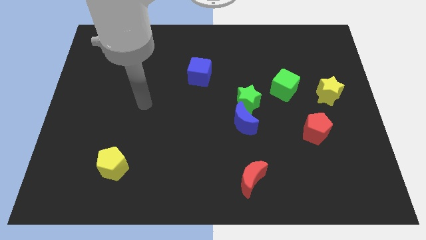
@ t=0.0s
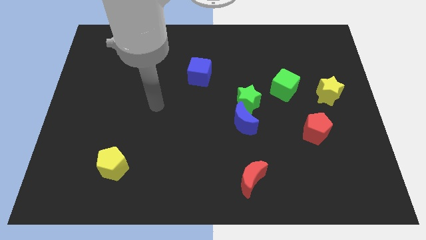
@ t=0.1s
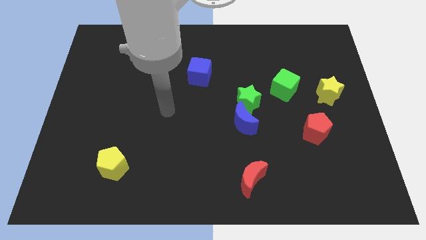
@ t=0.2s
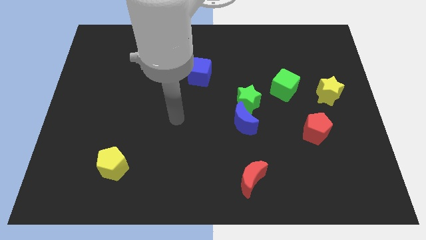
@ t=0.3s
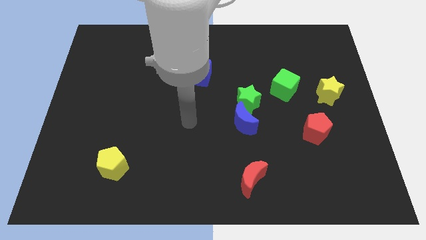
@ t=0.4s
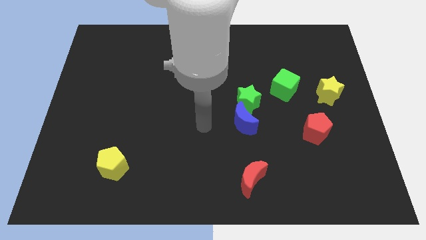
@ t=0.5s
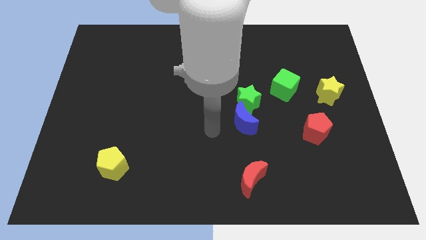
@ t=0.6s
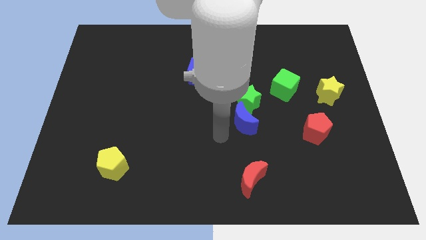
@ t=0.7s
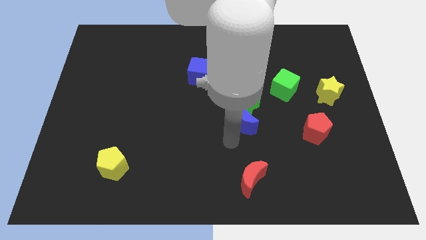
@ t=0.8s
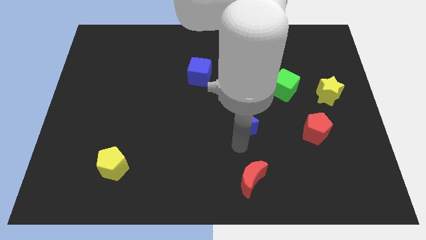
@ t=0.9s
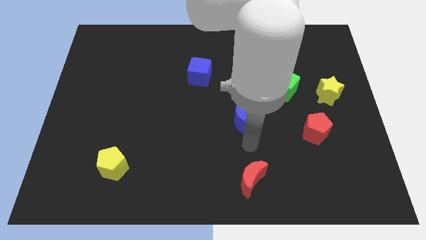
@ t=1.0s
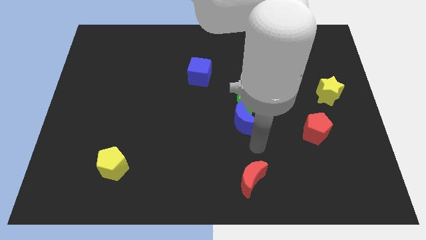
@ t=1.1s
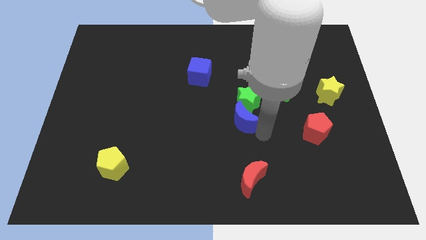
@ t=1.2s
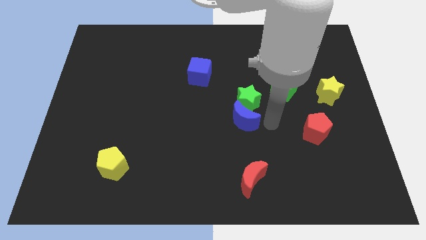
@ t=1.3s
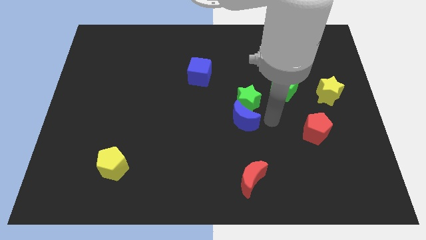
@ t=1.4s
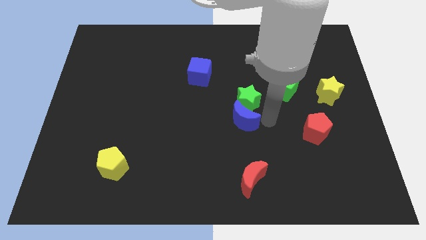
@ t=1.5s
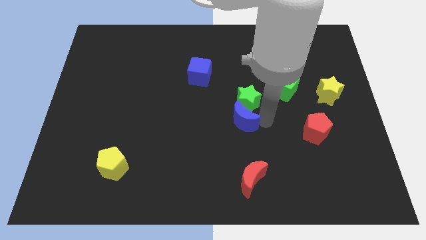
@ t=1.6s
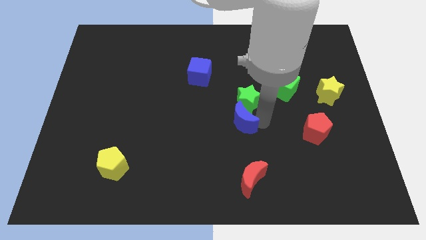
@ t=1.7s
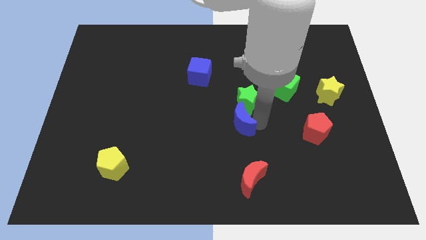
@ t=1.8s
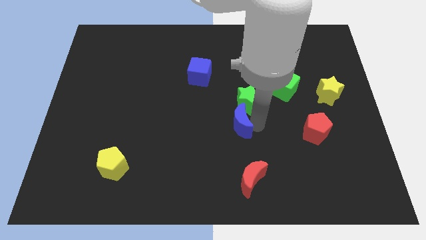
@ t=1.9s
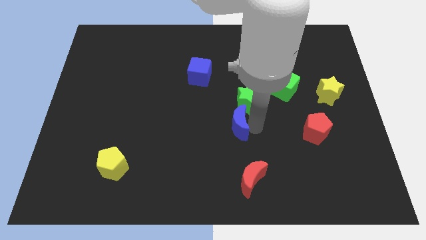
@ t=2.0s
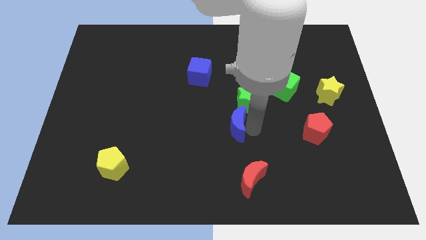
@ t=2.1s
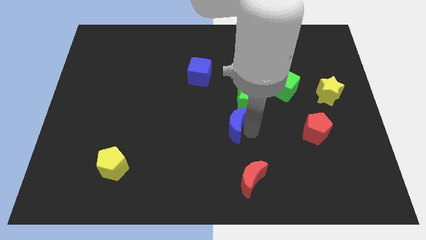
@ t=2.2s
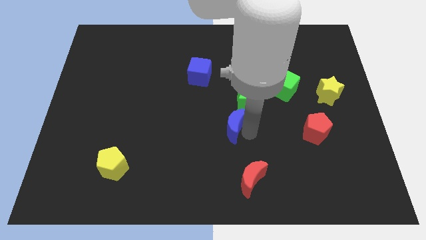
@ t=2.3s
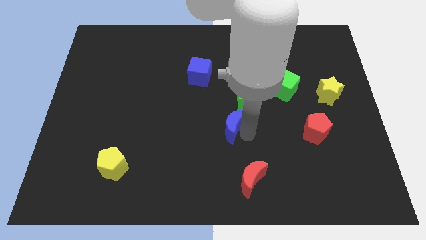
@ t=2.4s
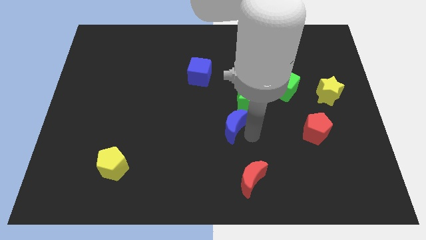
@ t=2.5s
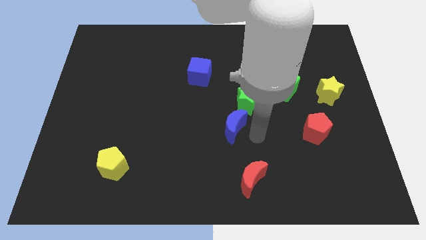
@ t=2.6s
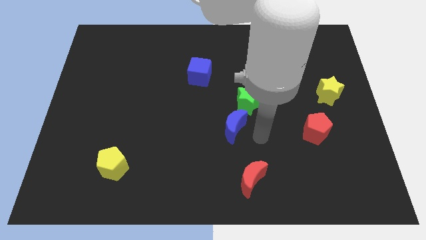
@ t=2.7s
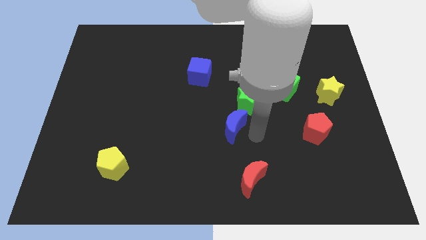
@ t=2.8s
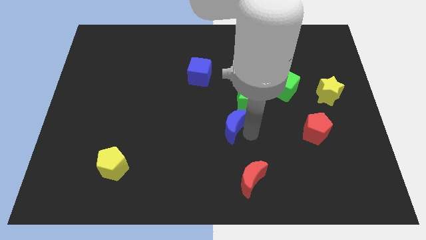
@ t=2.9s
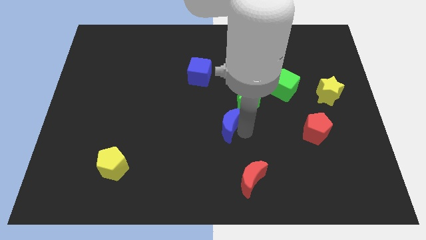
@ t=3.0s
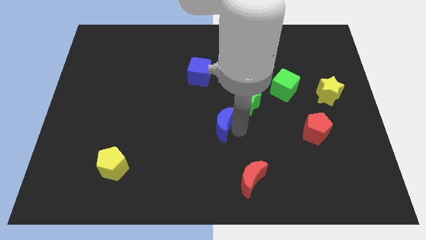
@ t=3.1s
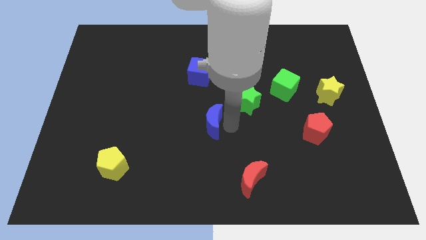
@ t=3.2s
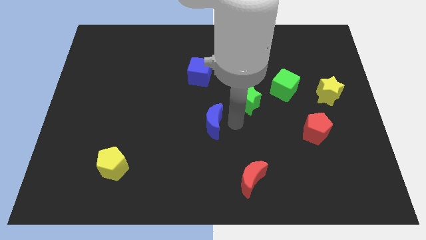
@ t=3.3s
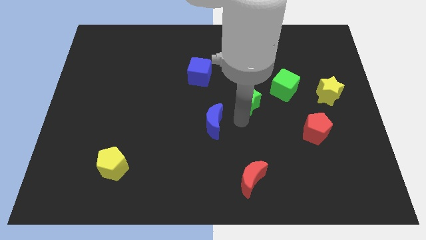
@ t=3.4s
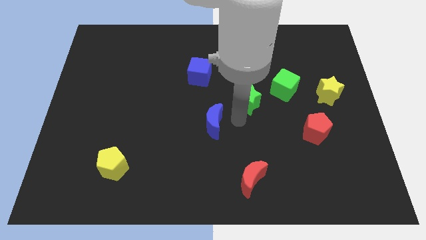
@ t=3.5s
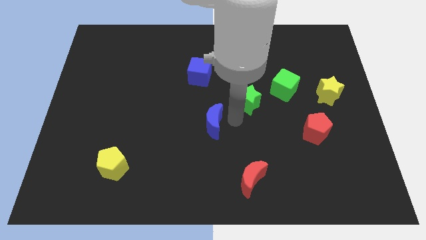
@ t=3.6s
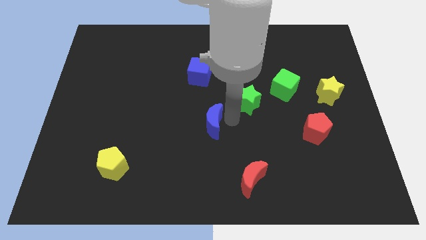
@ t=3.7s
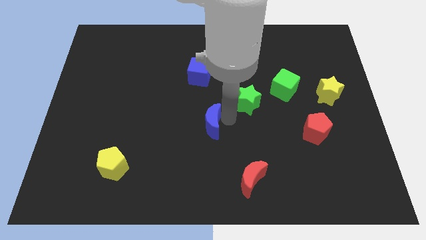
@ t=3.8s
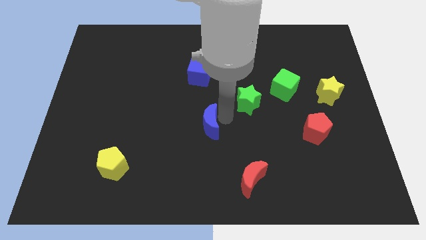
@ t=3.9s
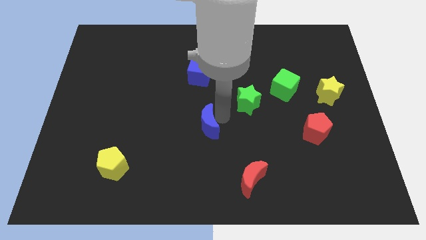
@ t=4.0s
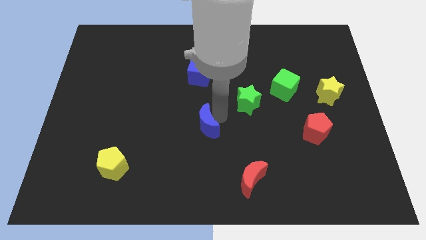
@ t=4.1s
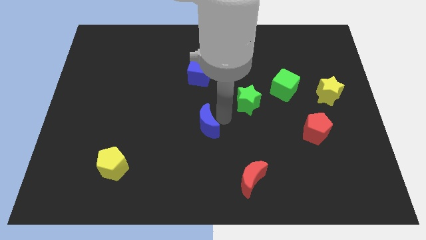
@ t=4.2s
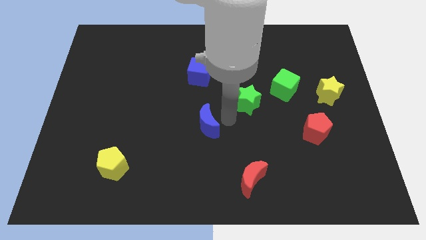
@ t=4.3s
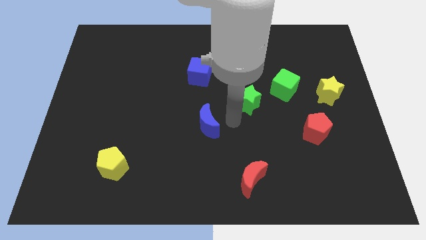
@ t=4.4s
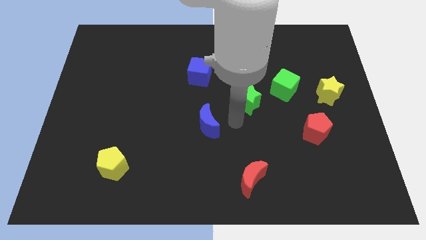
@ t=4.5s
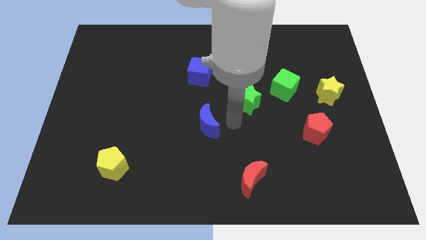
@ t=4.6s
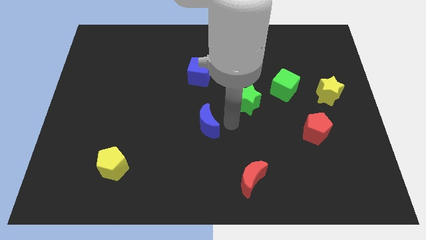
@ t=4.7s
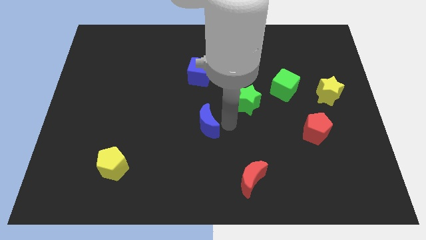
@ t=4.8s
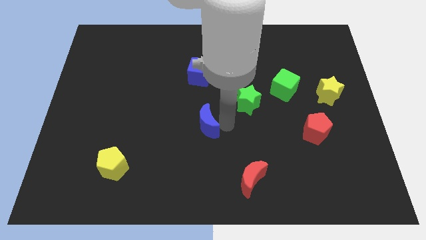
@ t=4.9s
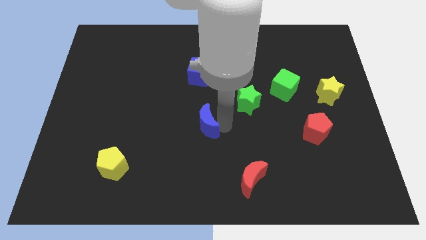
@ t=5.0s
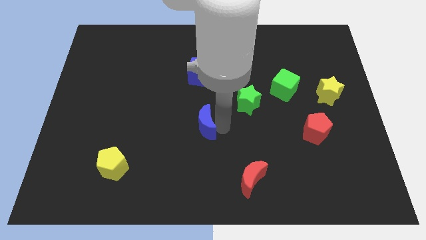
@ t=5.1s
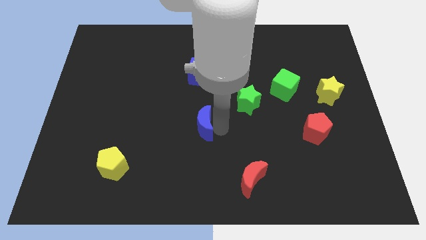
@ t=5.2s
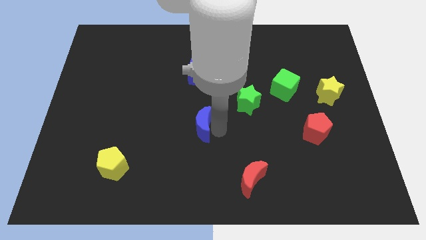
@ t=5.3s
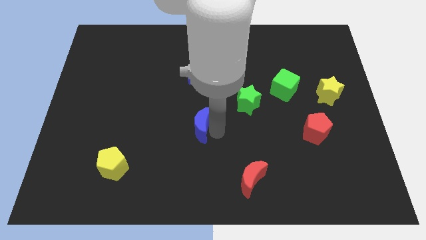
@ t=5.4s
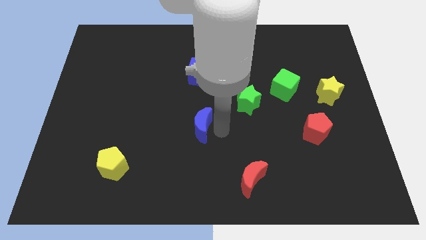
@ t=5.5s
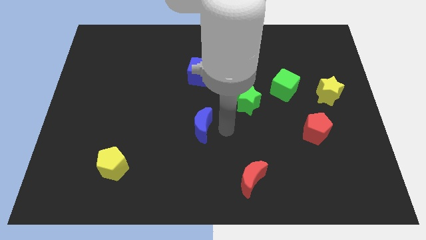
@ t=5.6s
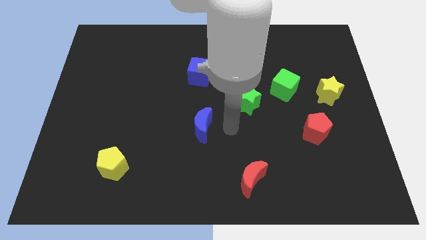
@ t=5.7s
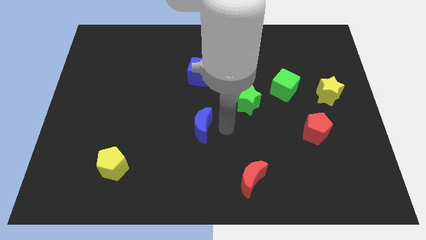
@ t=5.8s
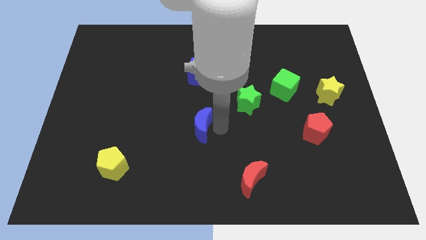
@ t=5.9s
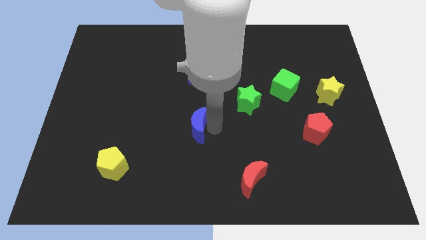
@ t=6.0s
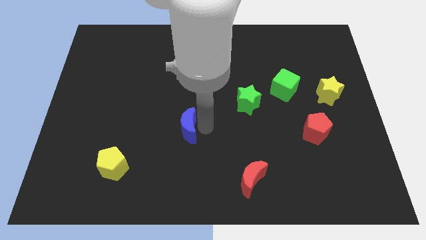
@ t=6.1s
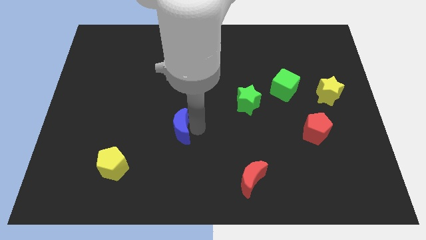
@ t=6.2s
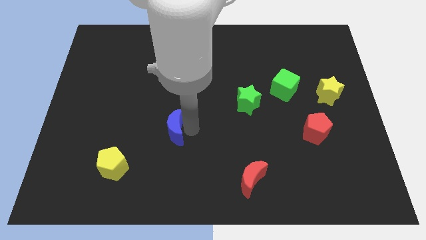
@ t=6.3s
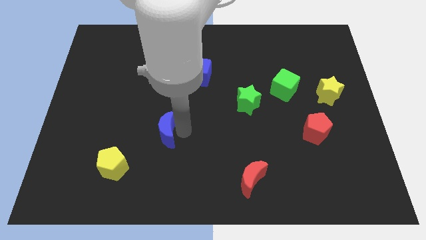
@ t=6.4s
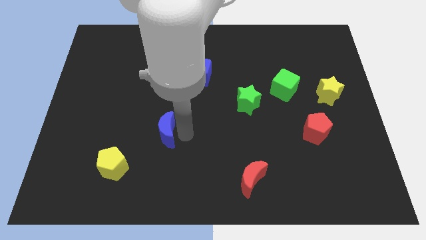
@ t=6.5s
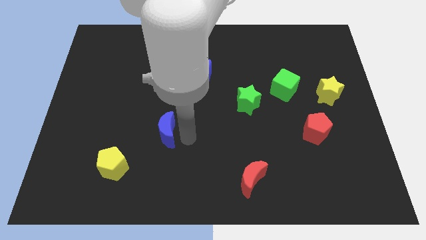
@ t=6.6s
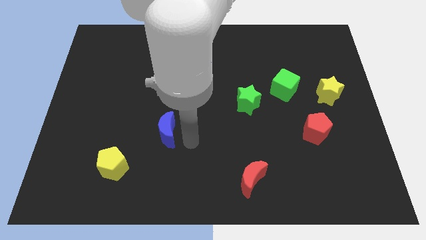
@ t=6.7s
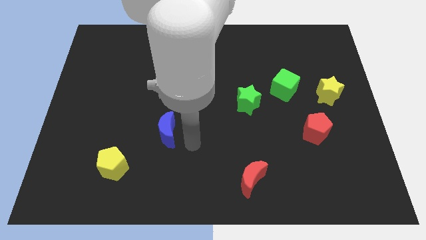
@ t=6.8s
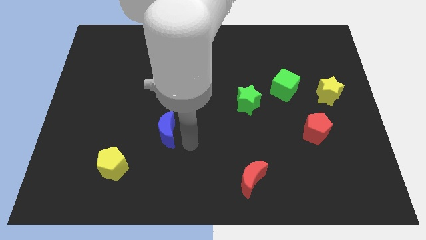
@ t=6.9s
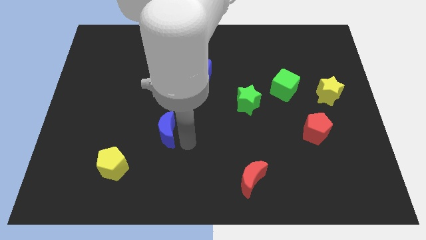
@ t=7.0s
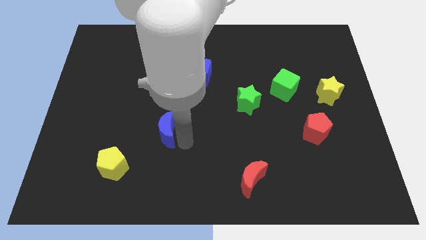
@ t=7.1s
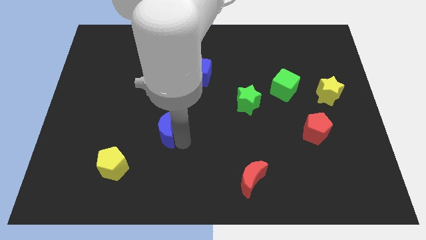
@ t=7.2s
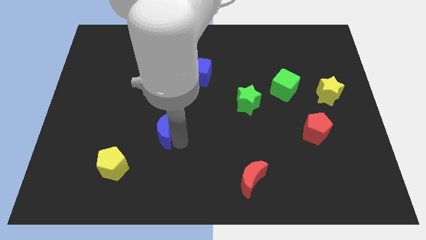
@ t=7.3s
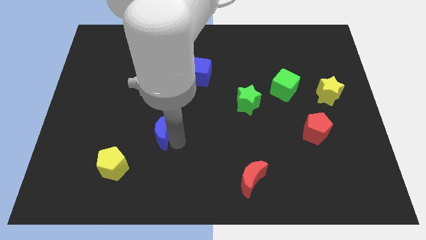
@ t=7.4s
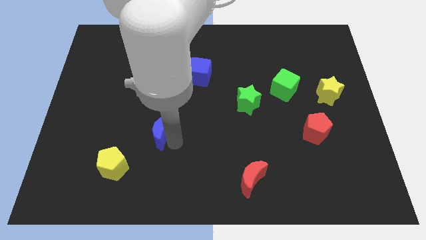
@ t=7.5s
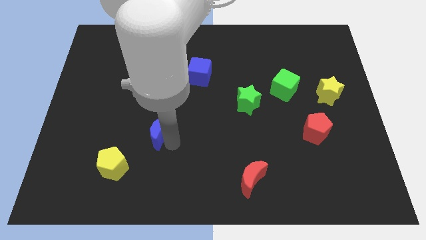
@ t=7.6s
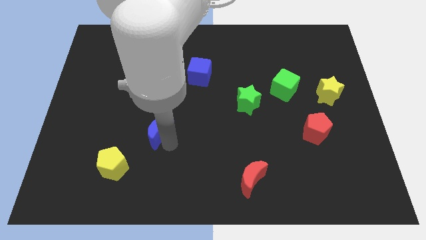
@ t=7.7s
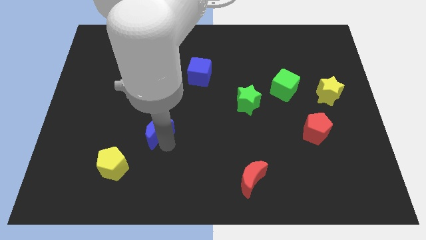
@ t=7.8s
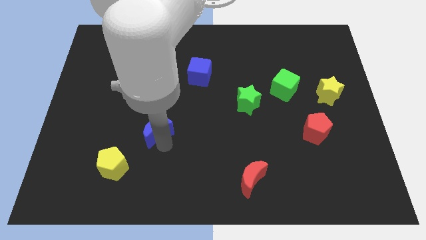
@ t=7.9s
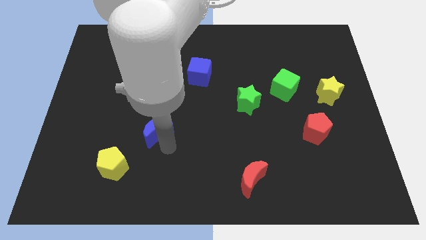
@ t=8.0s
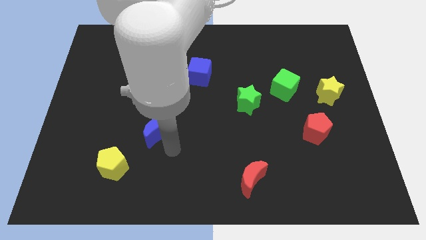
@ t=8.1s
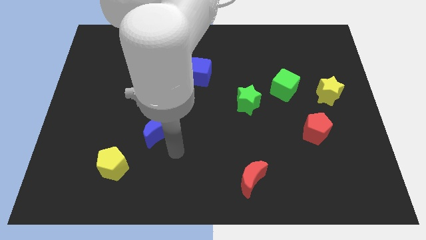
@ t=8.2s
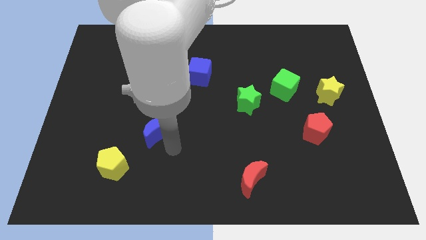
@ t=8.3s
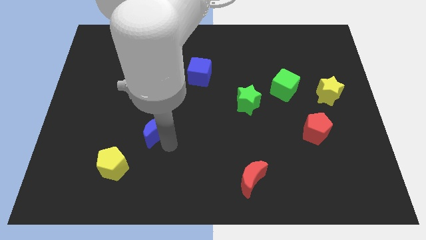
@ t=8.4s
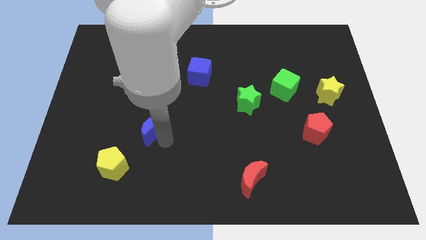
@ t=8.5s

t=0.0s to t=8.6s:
push the blue moon to the left
